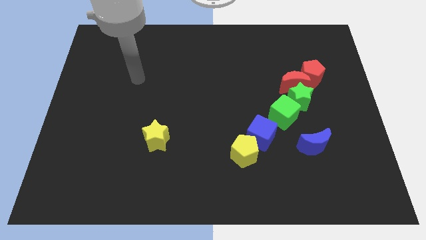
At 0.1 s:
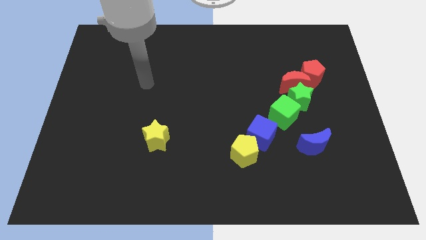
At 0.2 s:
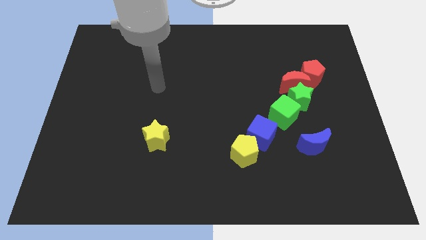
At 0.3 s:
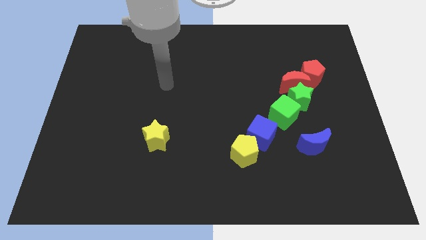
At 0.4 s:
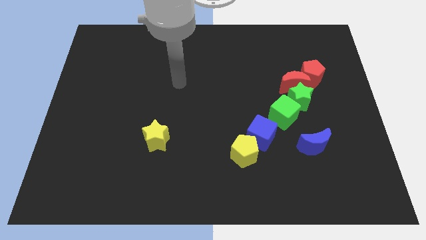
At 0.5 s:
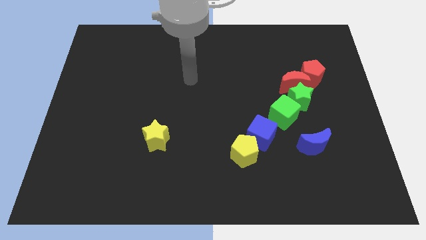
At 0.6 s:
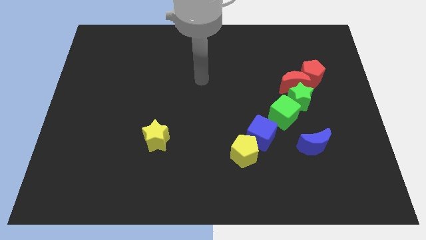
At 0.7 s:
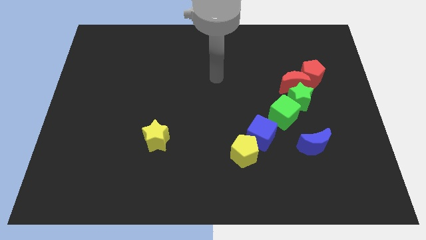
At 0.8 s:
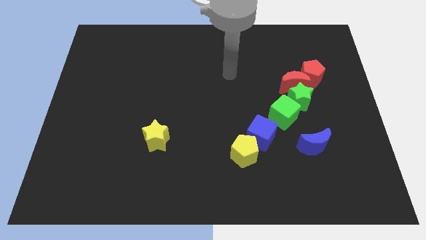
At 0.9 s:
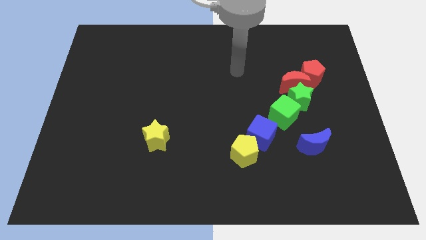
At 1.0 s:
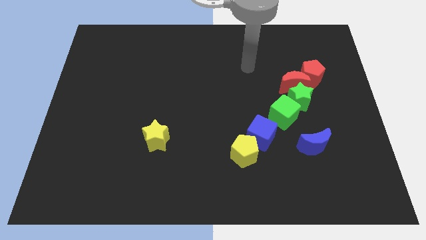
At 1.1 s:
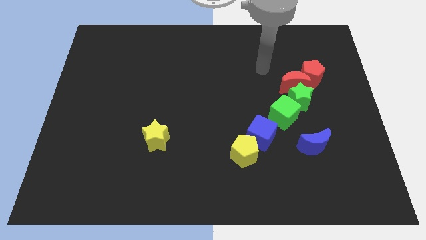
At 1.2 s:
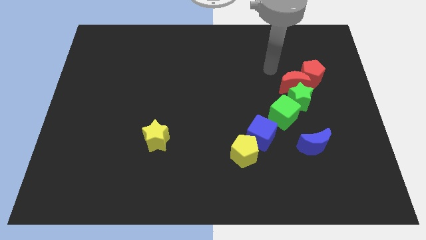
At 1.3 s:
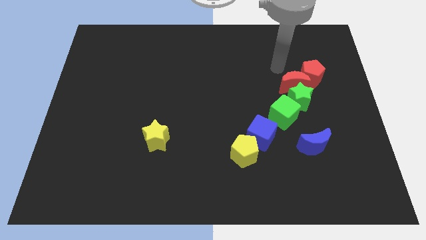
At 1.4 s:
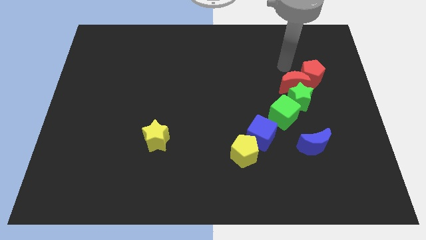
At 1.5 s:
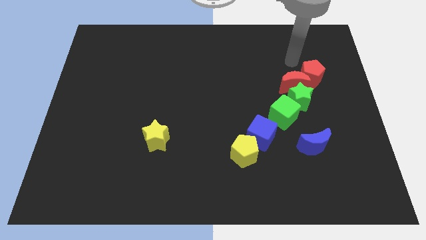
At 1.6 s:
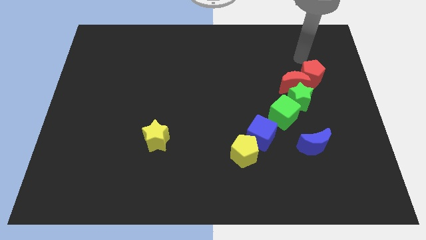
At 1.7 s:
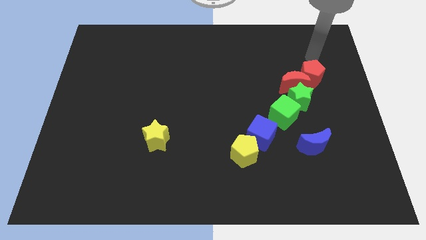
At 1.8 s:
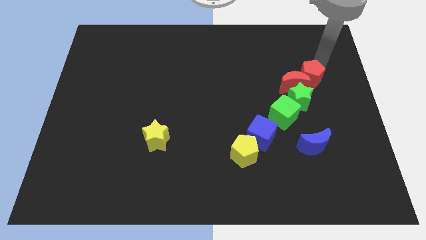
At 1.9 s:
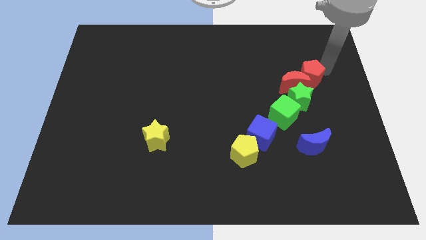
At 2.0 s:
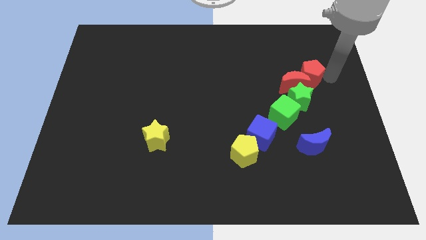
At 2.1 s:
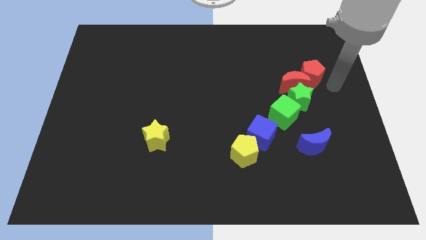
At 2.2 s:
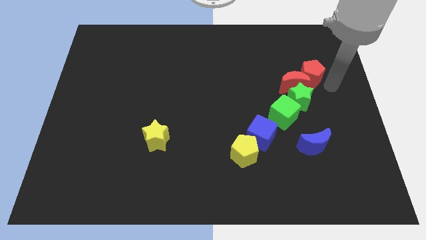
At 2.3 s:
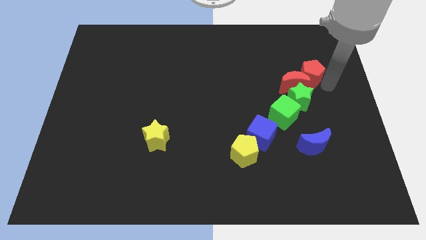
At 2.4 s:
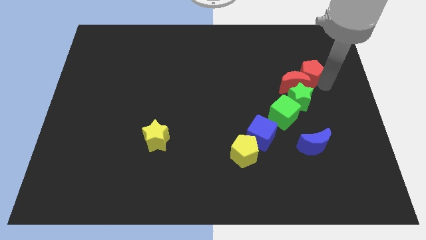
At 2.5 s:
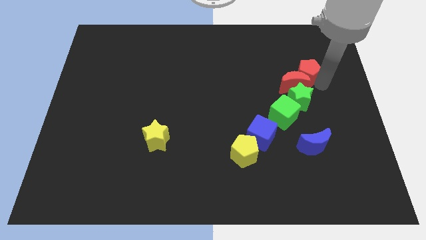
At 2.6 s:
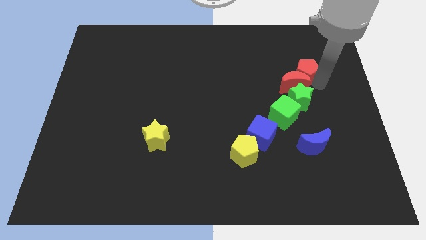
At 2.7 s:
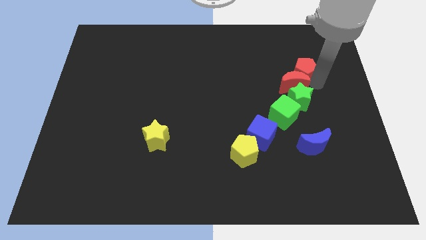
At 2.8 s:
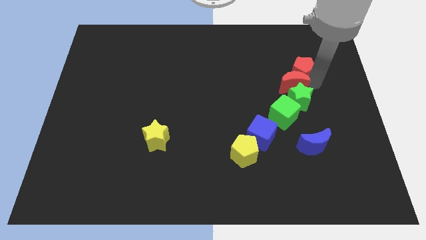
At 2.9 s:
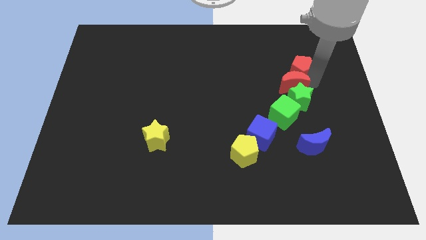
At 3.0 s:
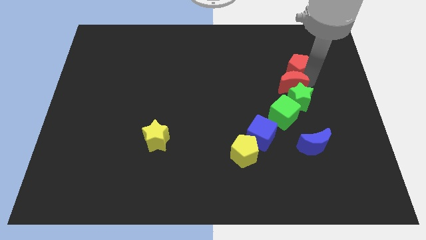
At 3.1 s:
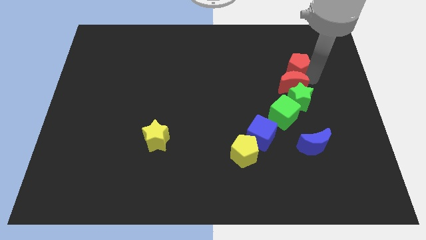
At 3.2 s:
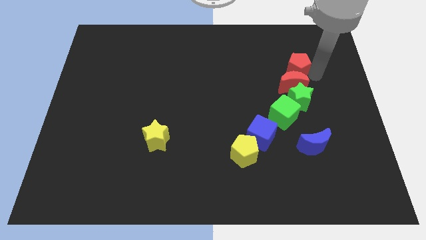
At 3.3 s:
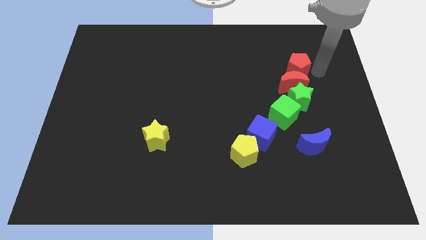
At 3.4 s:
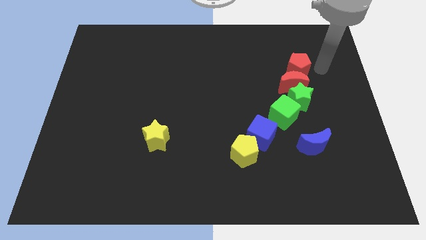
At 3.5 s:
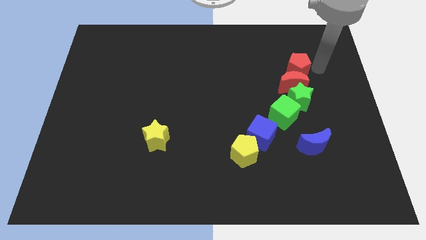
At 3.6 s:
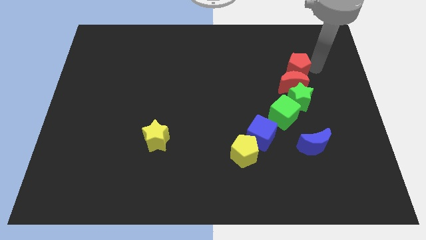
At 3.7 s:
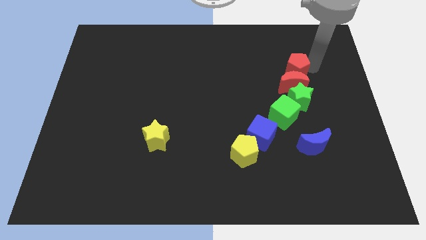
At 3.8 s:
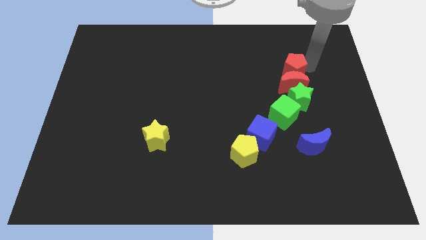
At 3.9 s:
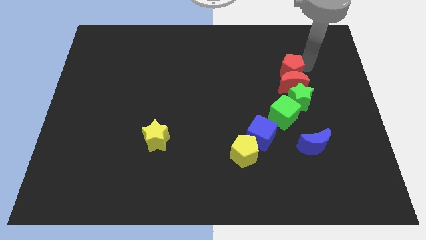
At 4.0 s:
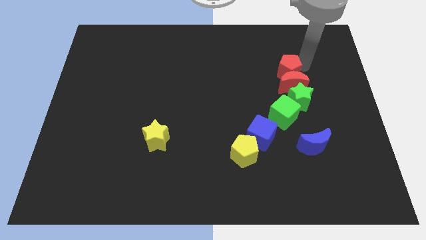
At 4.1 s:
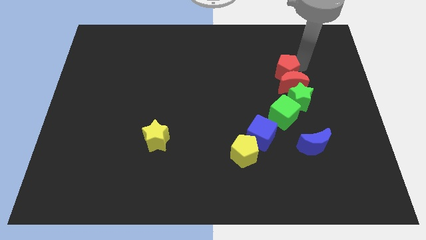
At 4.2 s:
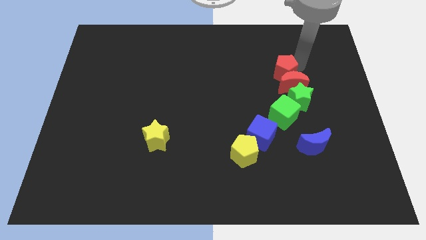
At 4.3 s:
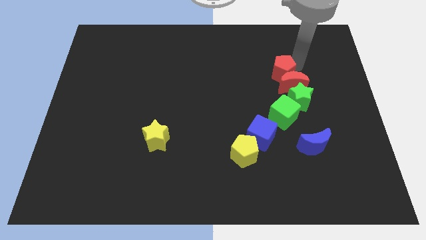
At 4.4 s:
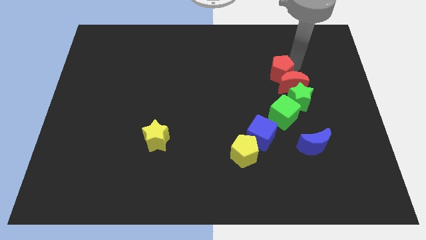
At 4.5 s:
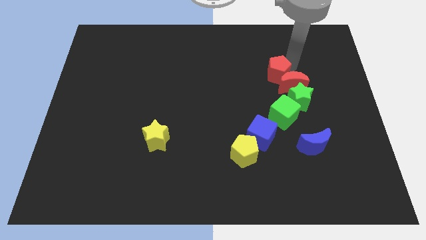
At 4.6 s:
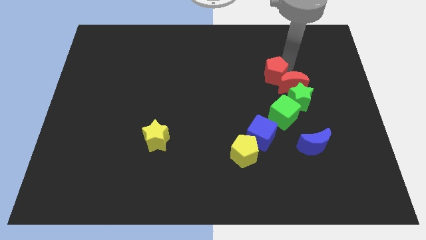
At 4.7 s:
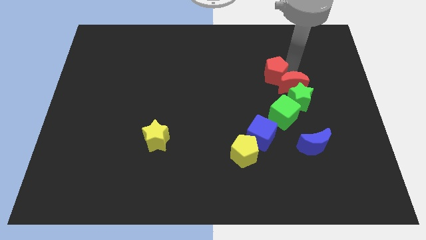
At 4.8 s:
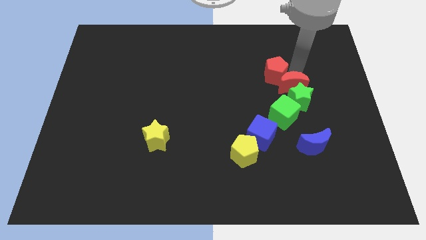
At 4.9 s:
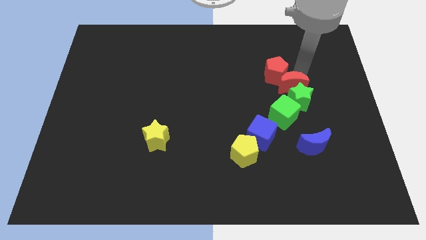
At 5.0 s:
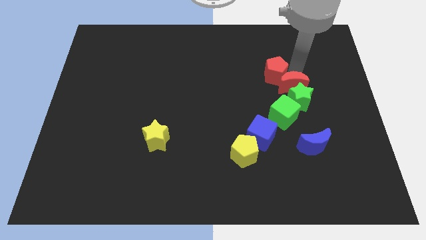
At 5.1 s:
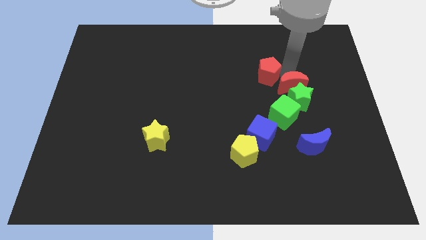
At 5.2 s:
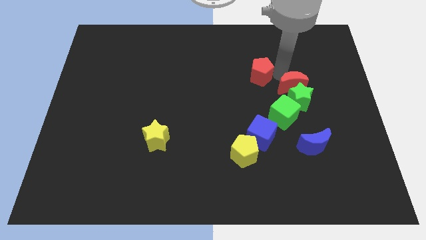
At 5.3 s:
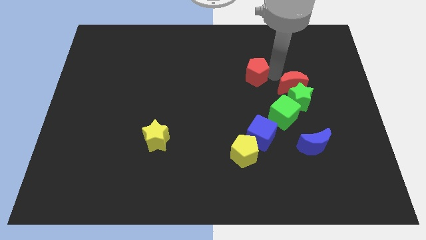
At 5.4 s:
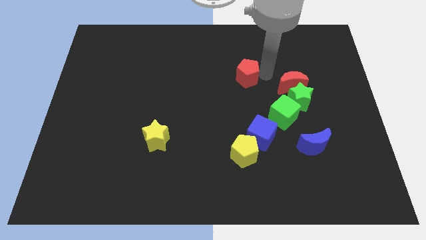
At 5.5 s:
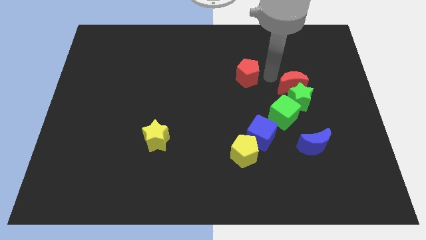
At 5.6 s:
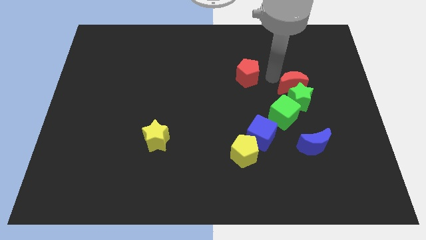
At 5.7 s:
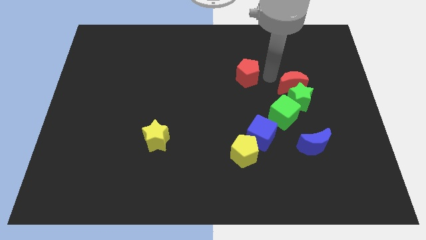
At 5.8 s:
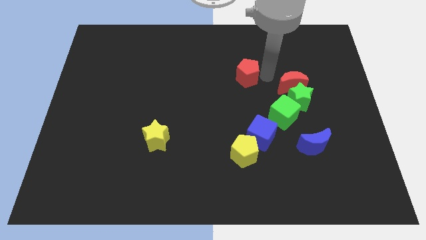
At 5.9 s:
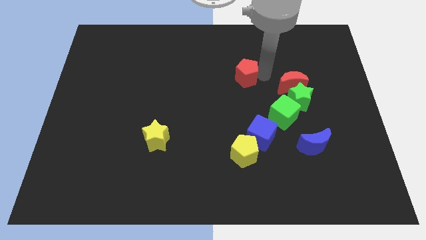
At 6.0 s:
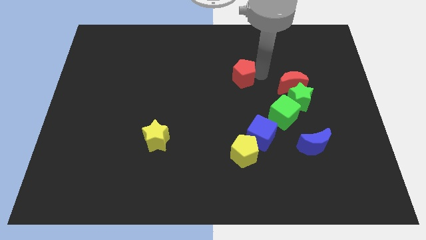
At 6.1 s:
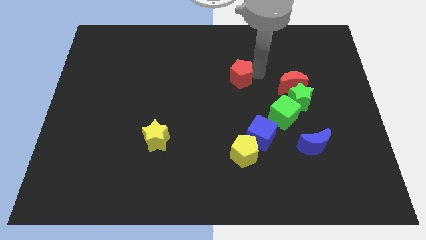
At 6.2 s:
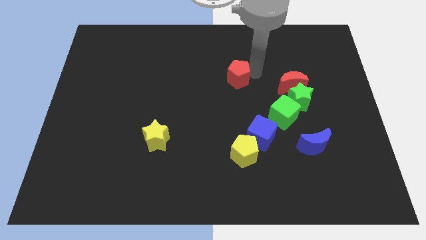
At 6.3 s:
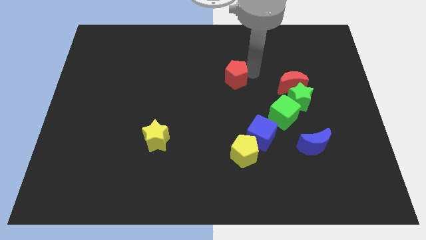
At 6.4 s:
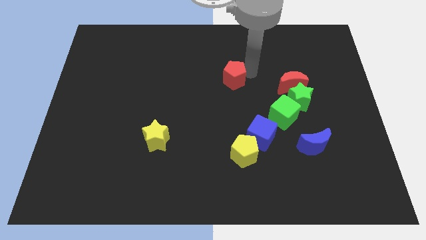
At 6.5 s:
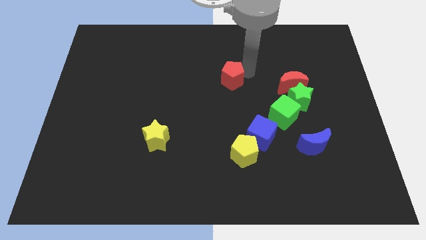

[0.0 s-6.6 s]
push the red pentagon left

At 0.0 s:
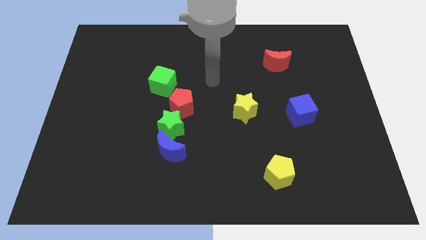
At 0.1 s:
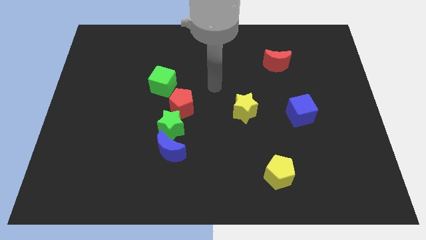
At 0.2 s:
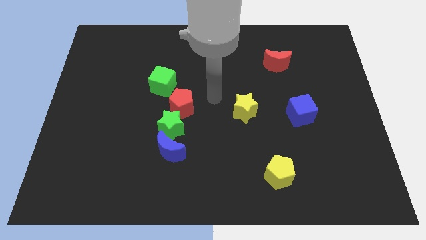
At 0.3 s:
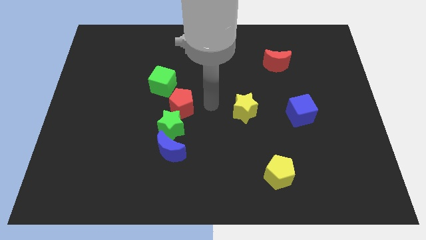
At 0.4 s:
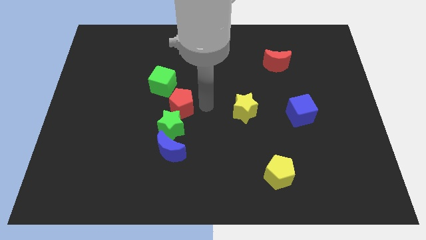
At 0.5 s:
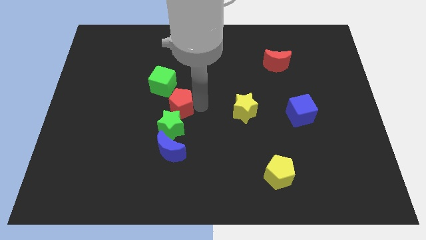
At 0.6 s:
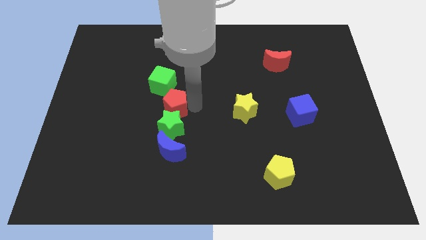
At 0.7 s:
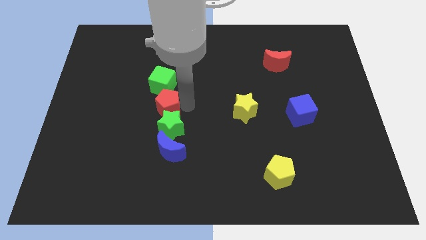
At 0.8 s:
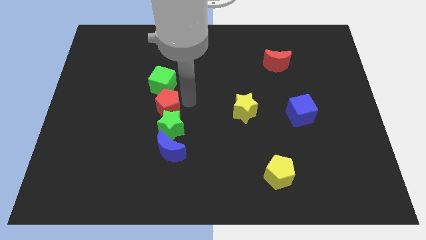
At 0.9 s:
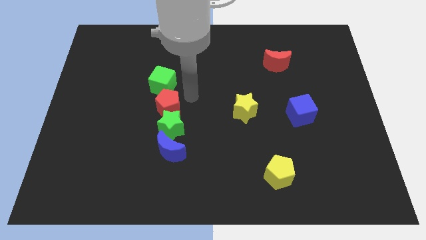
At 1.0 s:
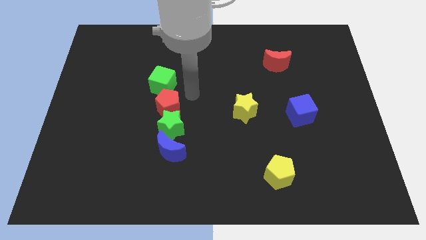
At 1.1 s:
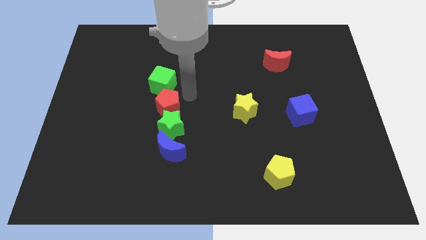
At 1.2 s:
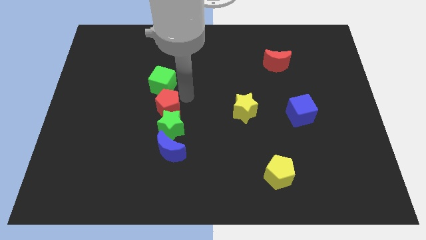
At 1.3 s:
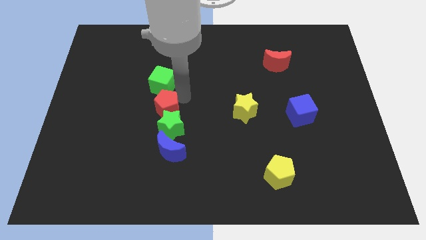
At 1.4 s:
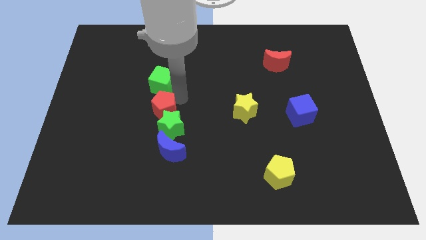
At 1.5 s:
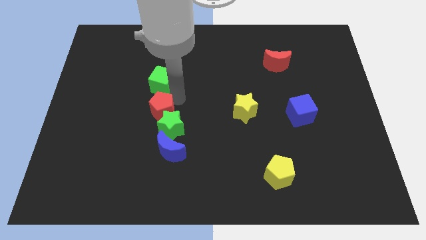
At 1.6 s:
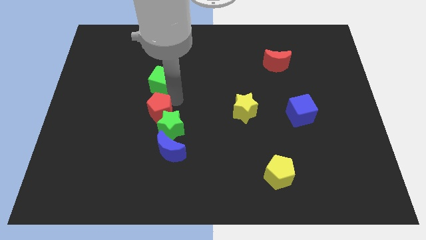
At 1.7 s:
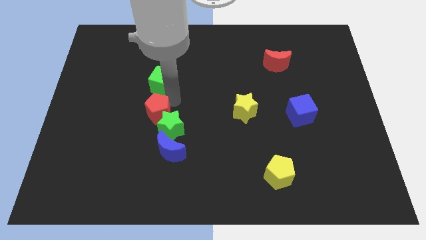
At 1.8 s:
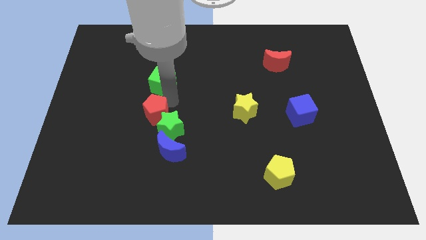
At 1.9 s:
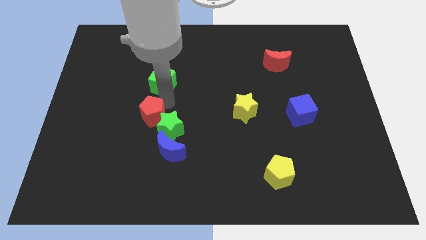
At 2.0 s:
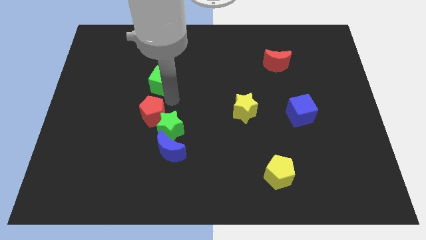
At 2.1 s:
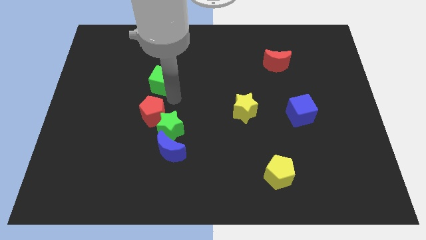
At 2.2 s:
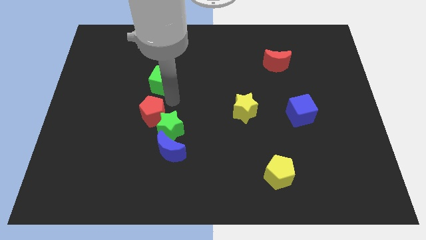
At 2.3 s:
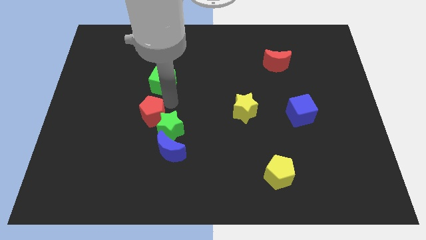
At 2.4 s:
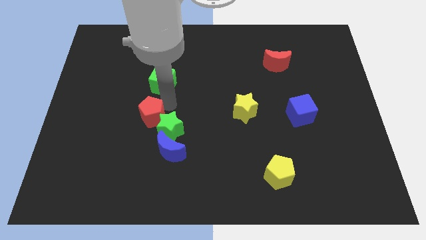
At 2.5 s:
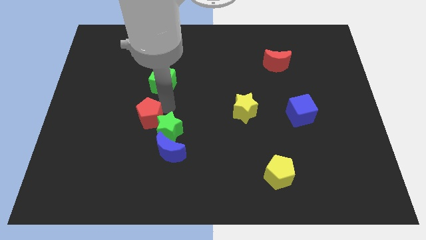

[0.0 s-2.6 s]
slide the red pentagon a bit down and left
